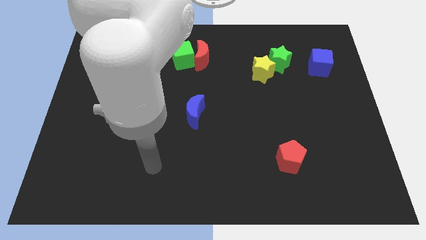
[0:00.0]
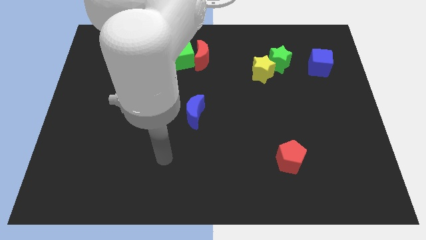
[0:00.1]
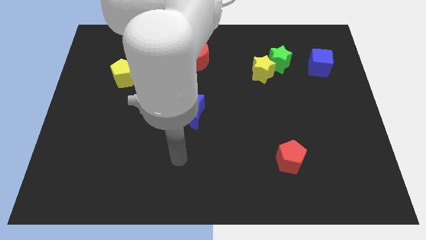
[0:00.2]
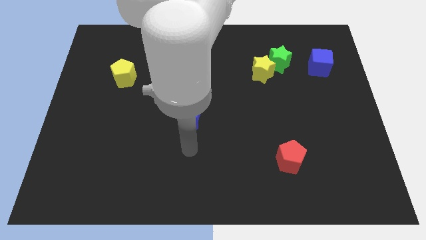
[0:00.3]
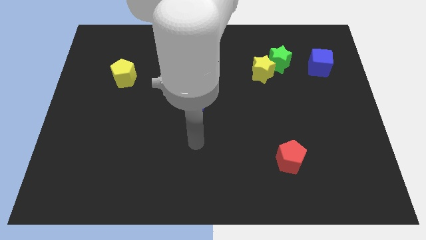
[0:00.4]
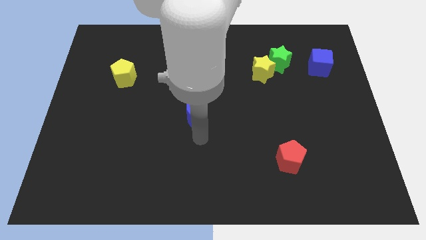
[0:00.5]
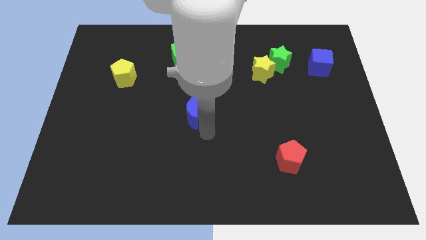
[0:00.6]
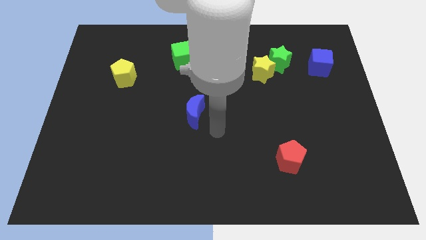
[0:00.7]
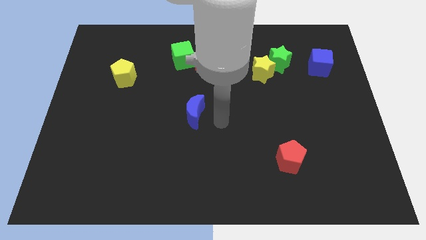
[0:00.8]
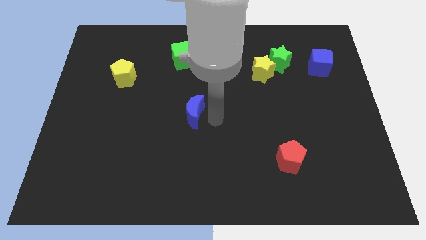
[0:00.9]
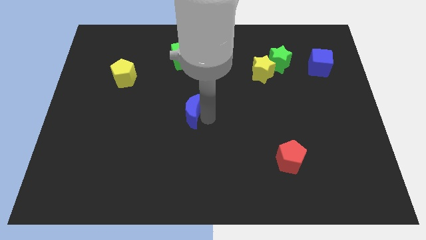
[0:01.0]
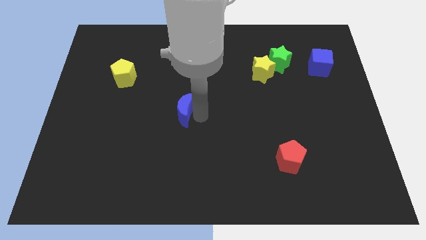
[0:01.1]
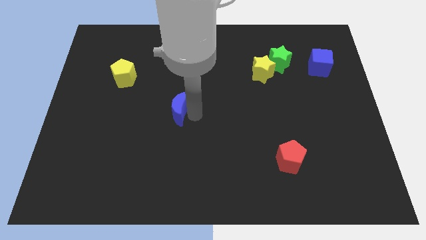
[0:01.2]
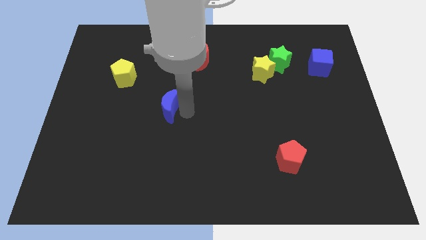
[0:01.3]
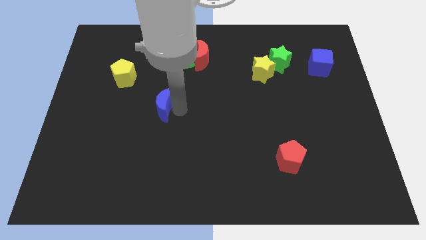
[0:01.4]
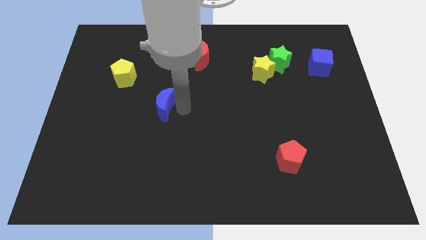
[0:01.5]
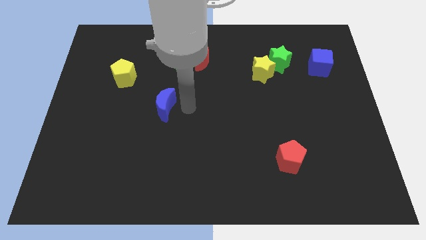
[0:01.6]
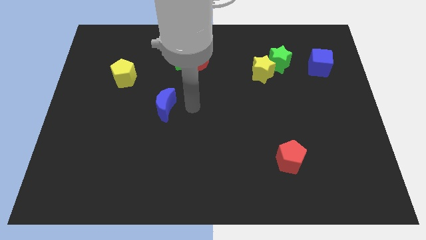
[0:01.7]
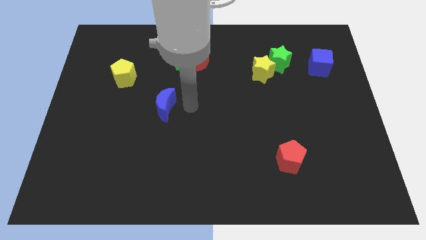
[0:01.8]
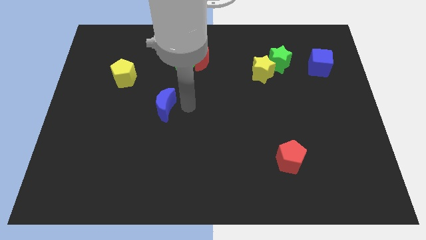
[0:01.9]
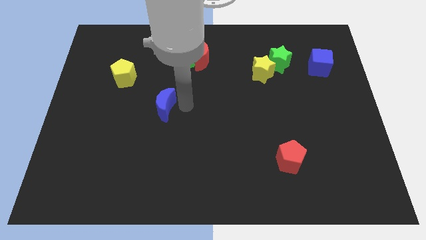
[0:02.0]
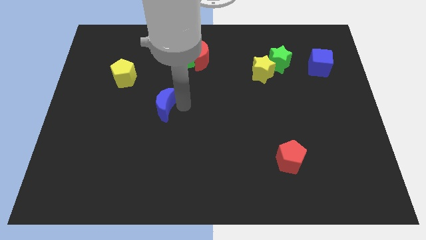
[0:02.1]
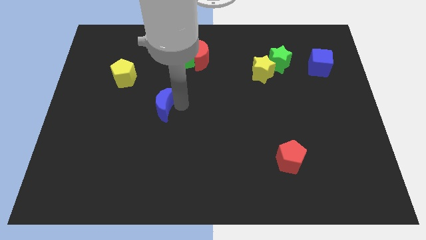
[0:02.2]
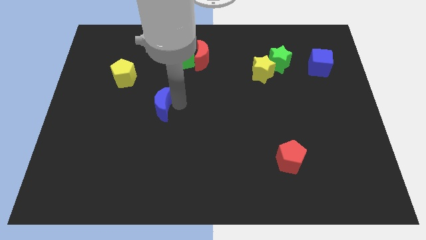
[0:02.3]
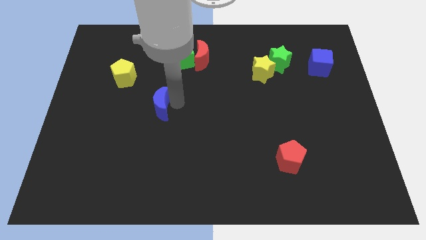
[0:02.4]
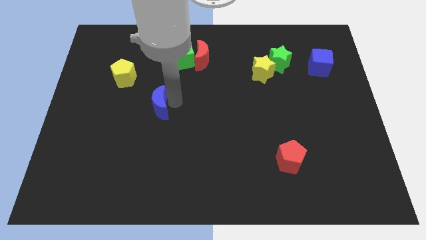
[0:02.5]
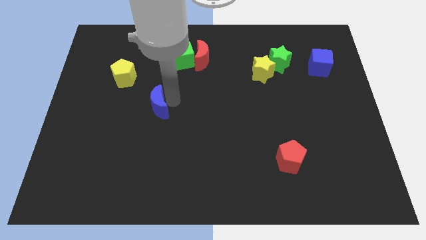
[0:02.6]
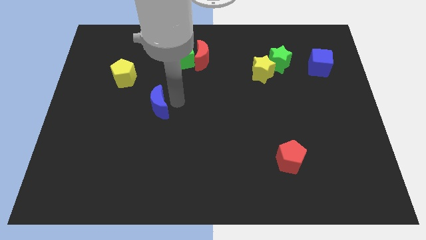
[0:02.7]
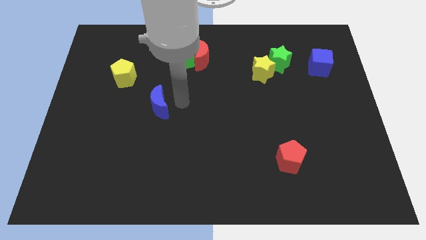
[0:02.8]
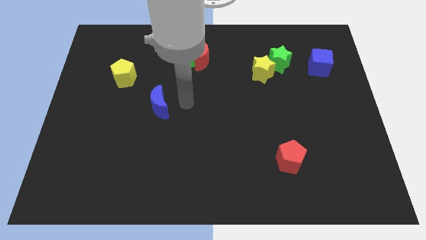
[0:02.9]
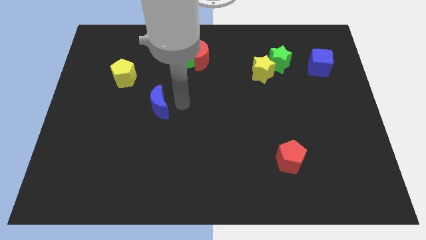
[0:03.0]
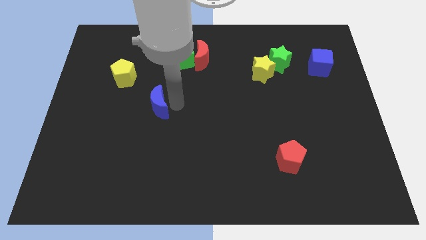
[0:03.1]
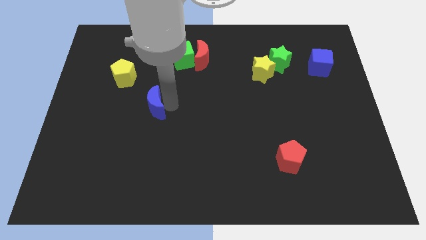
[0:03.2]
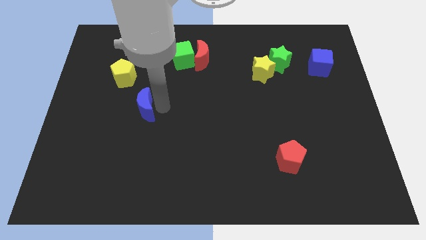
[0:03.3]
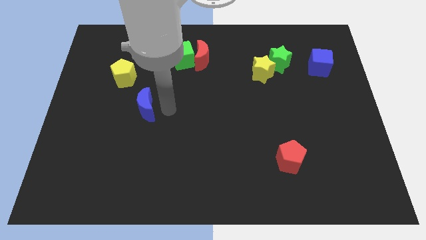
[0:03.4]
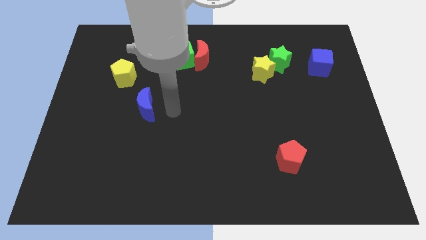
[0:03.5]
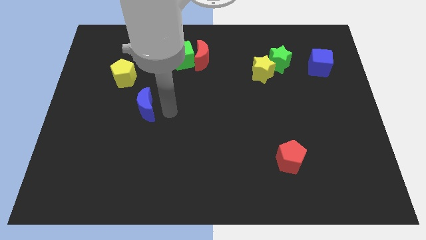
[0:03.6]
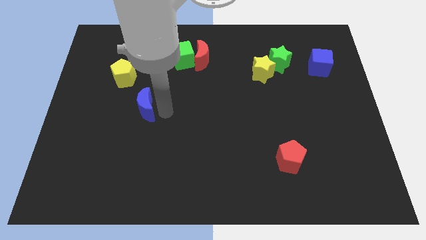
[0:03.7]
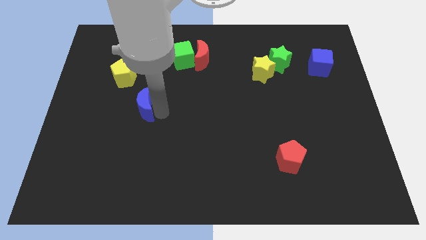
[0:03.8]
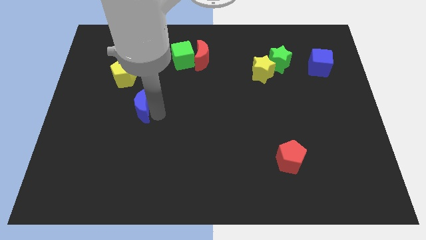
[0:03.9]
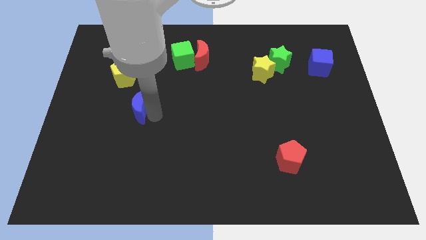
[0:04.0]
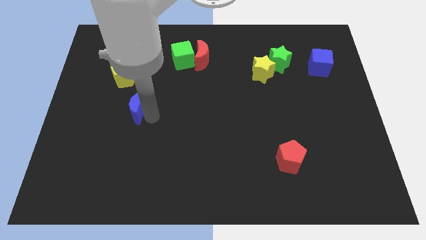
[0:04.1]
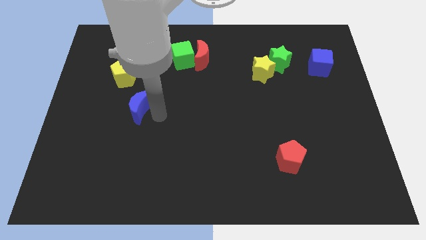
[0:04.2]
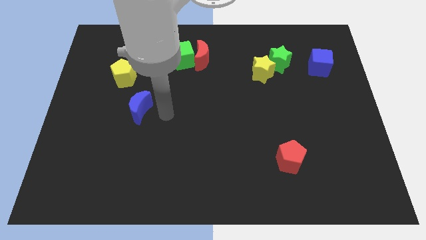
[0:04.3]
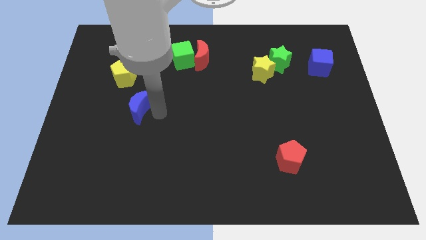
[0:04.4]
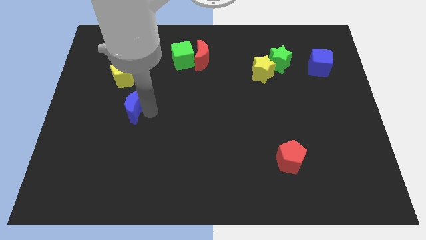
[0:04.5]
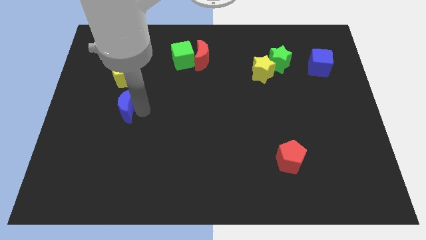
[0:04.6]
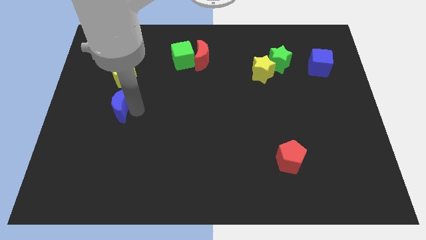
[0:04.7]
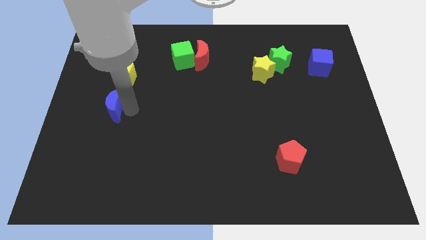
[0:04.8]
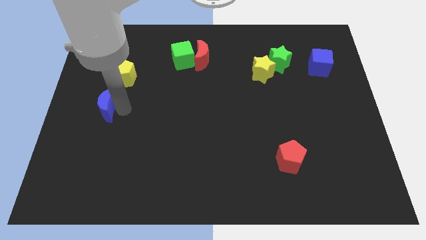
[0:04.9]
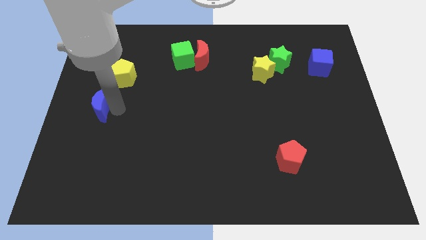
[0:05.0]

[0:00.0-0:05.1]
slide the blue moon to the left side of the board

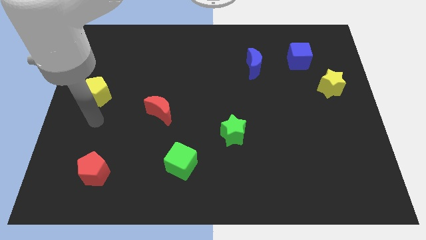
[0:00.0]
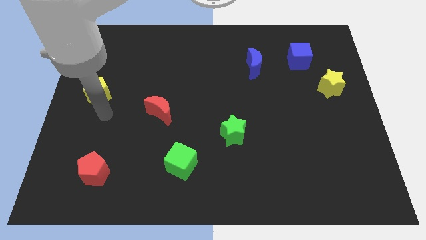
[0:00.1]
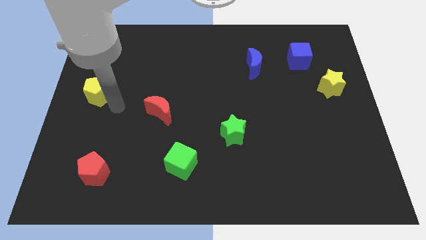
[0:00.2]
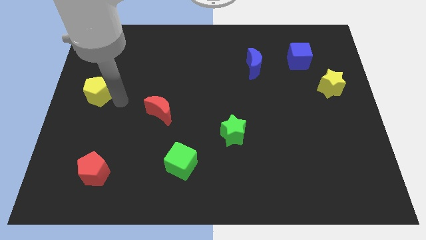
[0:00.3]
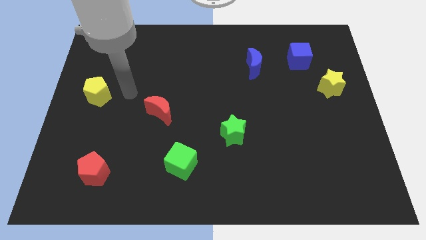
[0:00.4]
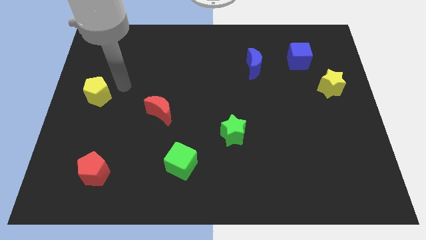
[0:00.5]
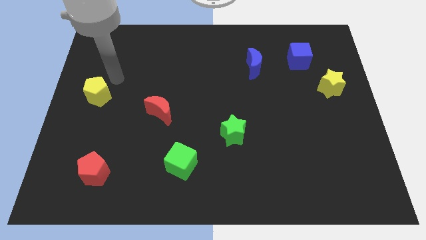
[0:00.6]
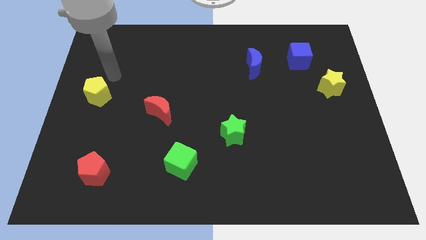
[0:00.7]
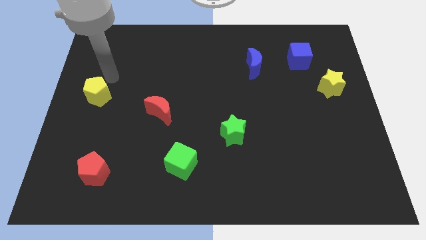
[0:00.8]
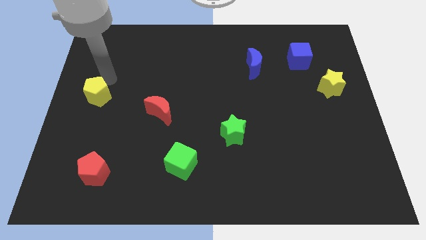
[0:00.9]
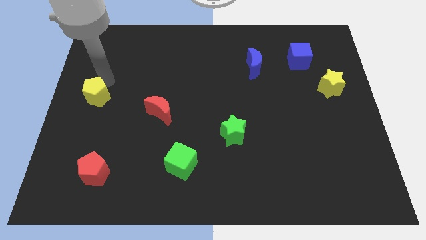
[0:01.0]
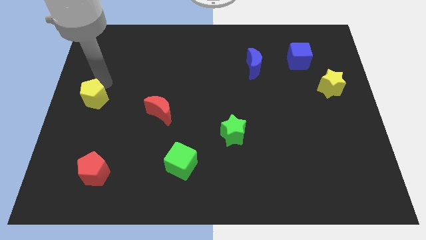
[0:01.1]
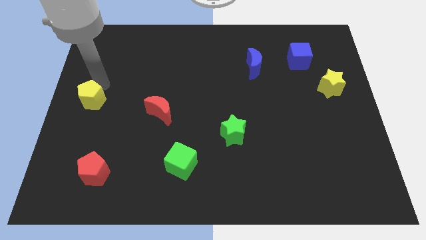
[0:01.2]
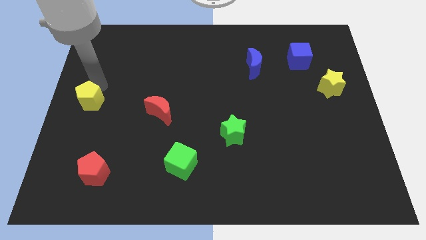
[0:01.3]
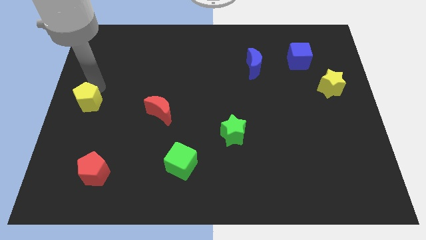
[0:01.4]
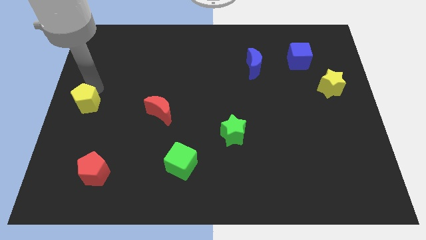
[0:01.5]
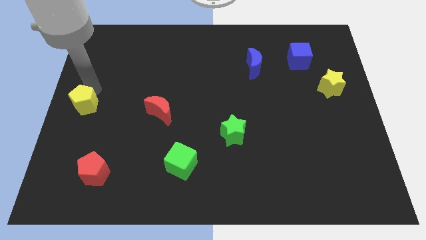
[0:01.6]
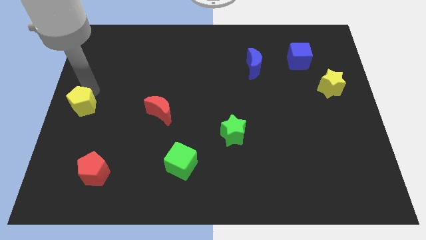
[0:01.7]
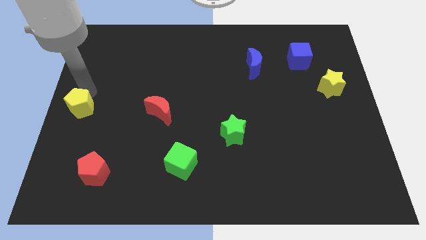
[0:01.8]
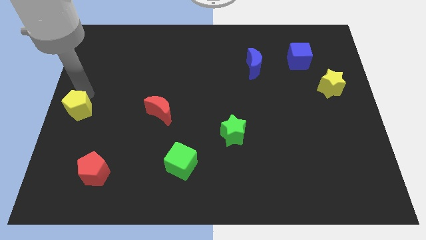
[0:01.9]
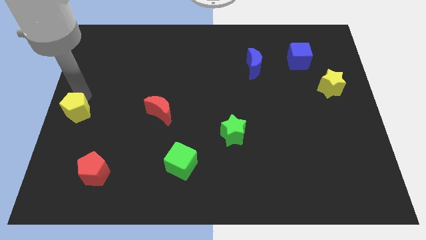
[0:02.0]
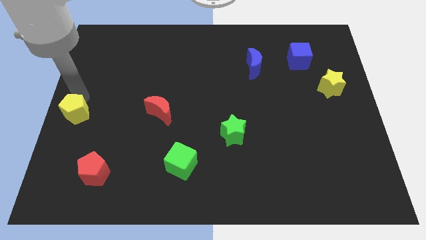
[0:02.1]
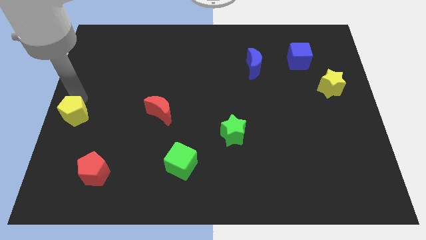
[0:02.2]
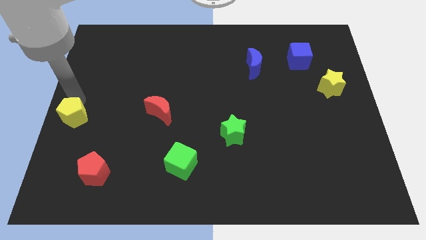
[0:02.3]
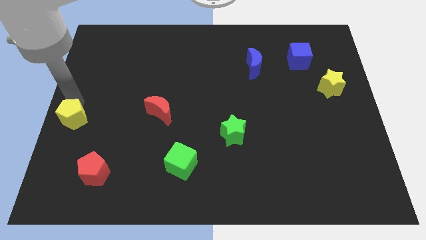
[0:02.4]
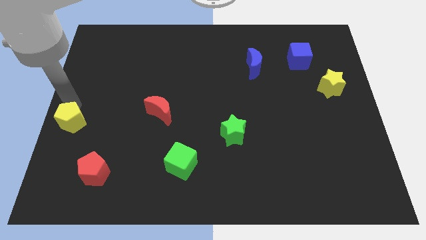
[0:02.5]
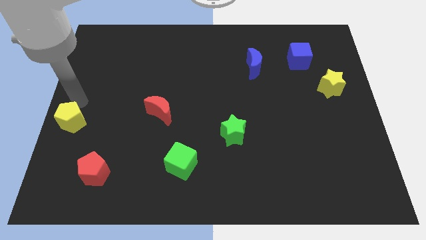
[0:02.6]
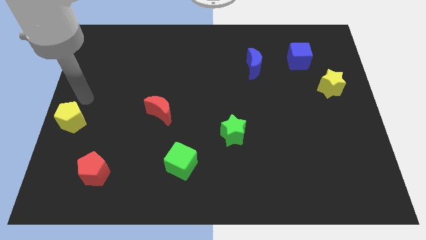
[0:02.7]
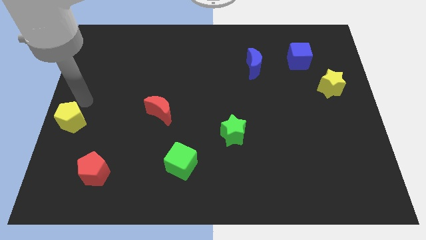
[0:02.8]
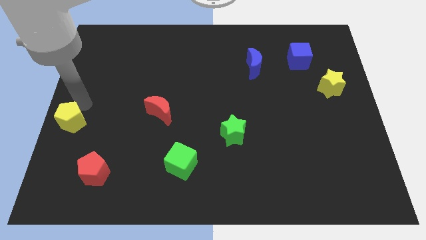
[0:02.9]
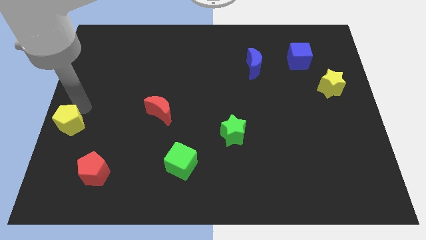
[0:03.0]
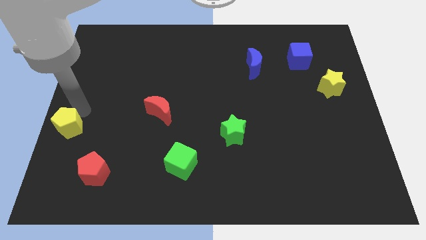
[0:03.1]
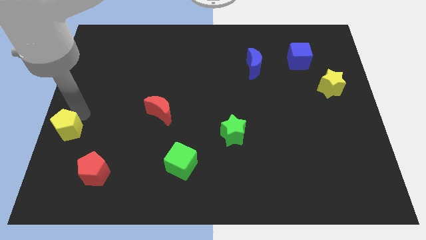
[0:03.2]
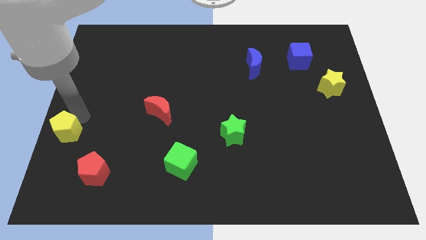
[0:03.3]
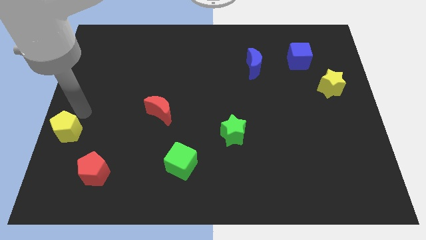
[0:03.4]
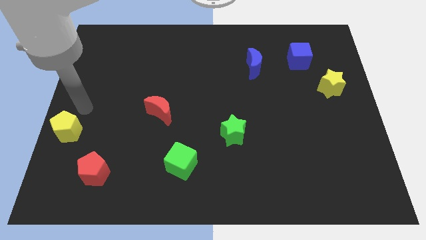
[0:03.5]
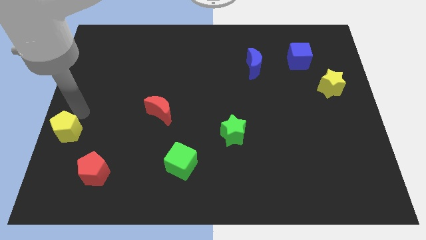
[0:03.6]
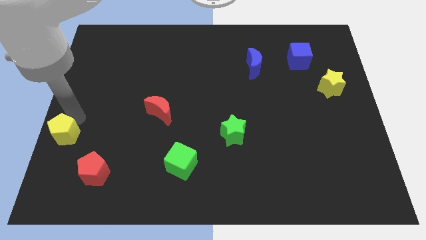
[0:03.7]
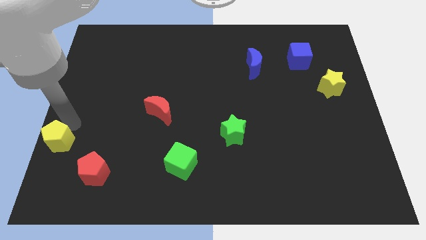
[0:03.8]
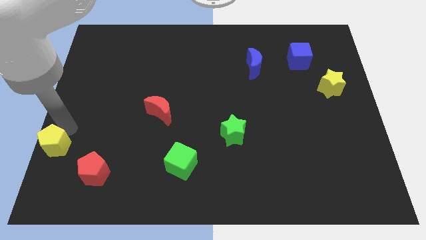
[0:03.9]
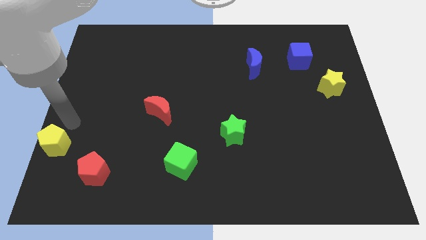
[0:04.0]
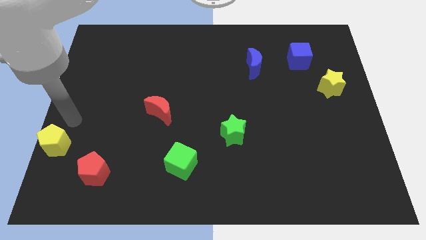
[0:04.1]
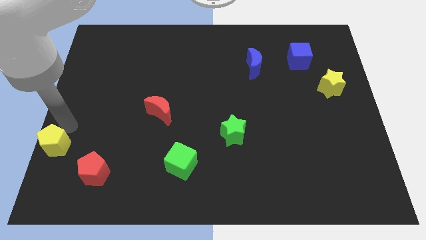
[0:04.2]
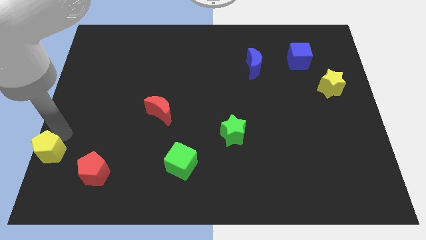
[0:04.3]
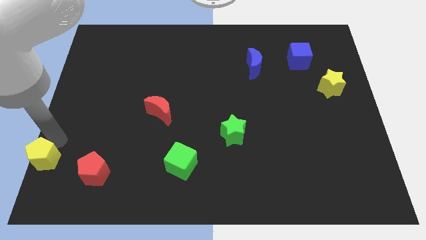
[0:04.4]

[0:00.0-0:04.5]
slide the yellow pentagon to the bottom left corner
